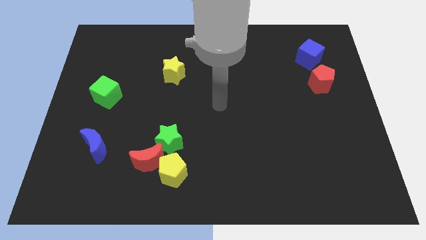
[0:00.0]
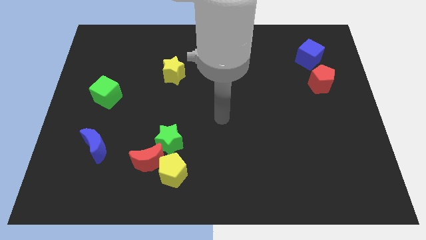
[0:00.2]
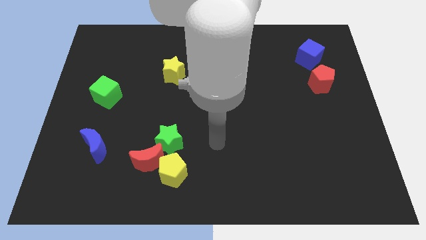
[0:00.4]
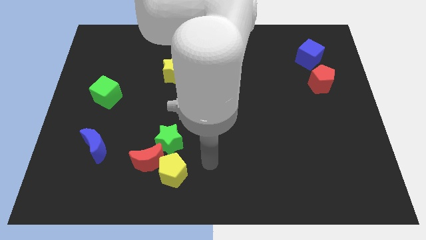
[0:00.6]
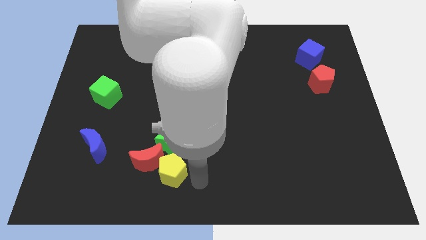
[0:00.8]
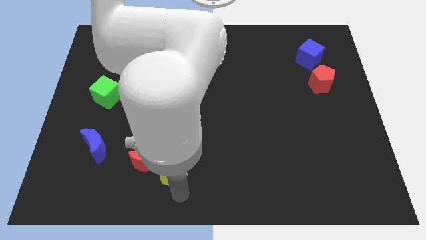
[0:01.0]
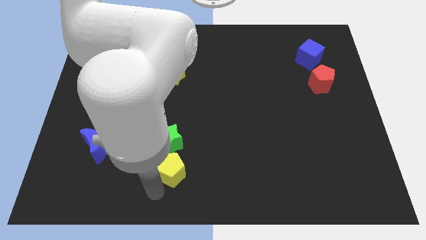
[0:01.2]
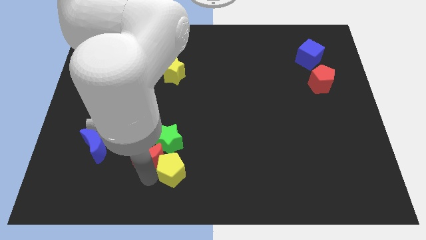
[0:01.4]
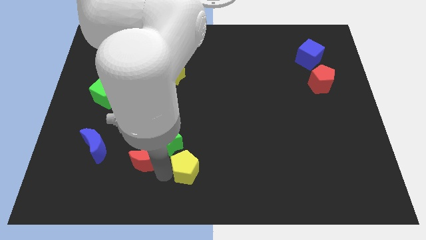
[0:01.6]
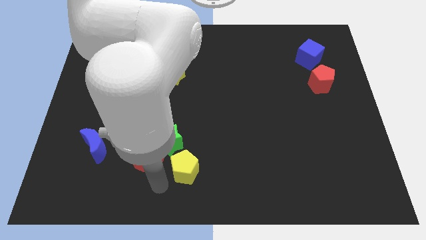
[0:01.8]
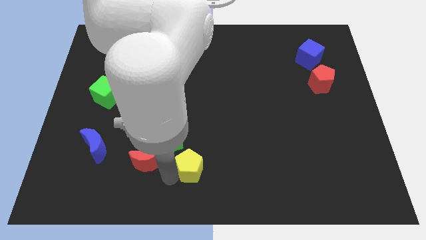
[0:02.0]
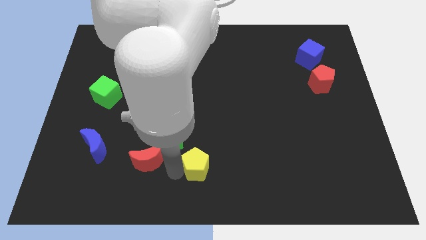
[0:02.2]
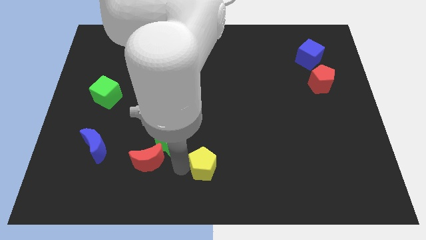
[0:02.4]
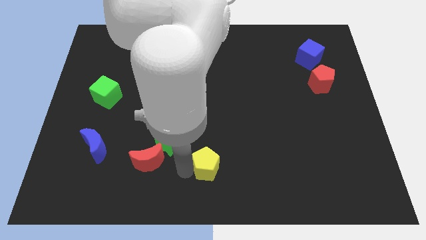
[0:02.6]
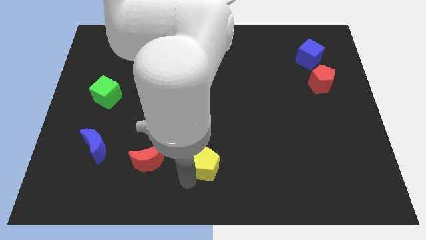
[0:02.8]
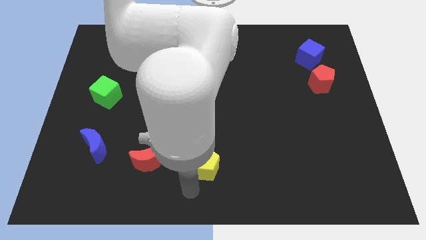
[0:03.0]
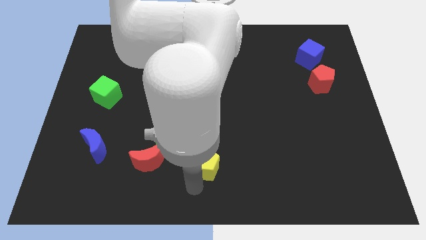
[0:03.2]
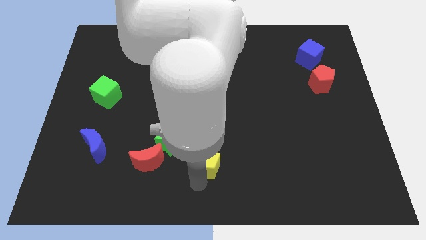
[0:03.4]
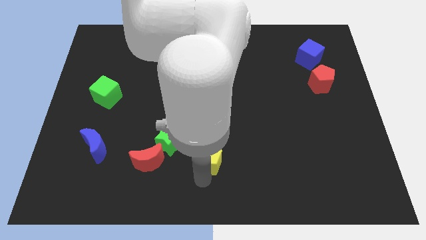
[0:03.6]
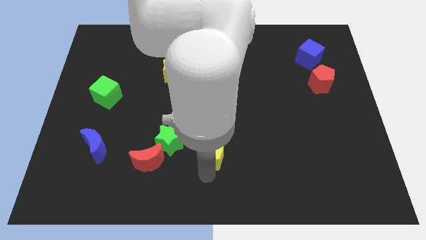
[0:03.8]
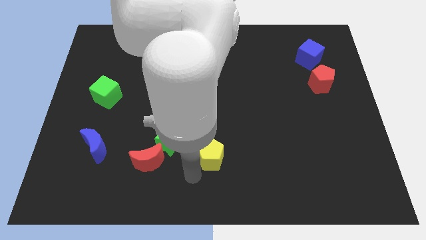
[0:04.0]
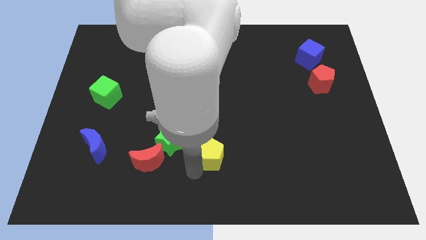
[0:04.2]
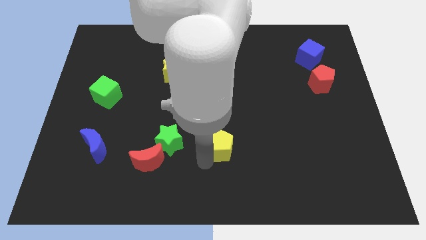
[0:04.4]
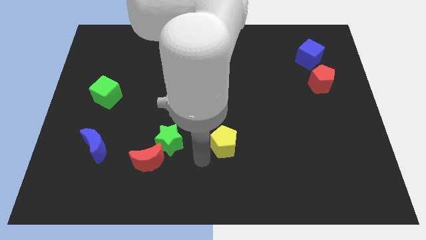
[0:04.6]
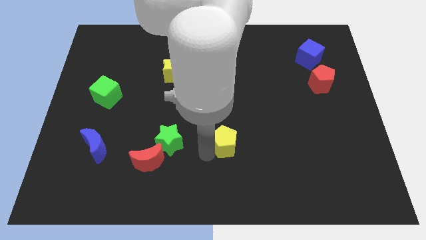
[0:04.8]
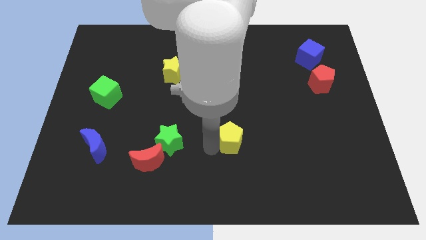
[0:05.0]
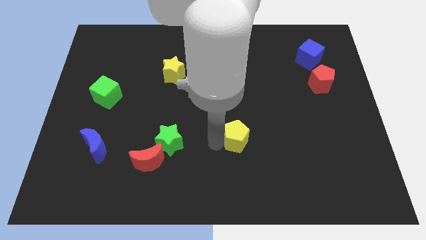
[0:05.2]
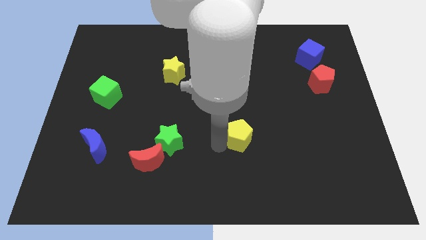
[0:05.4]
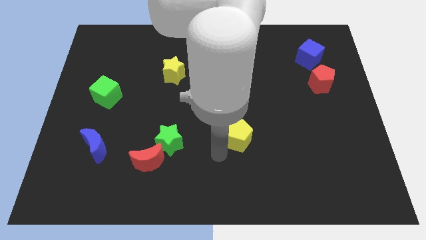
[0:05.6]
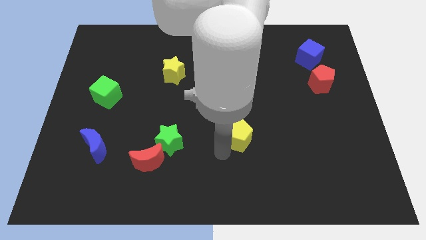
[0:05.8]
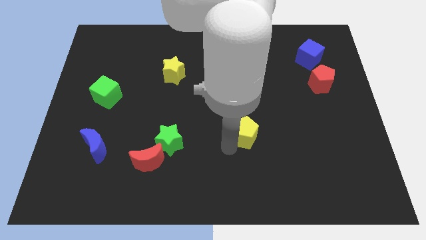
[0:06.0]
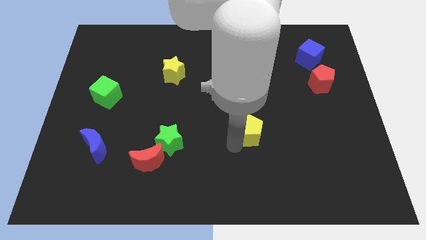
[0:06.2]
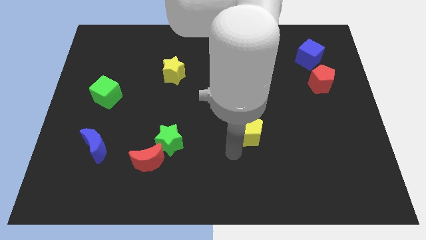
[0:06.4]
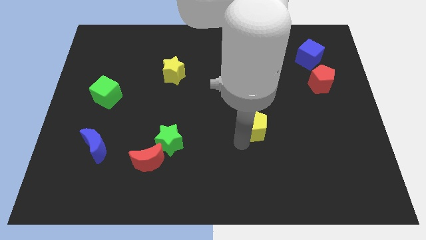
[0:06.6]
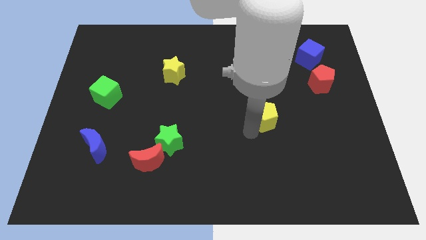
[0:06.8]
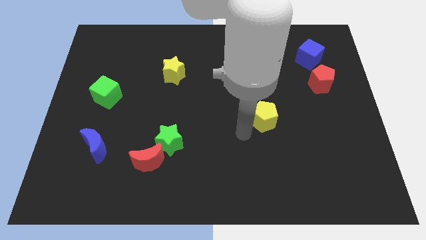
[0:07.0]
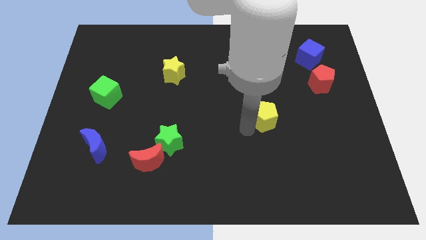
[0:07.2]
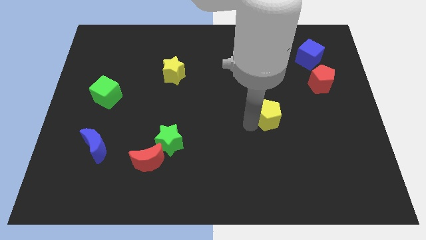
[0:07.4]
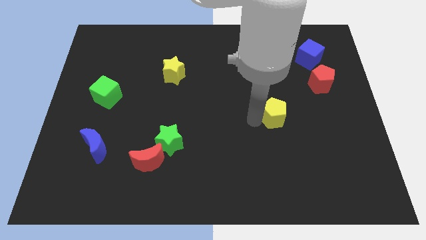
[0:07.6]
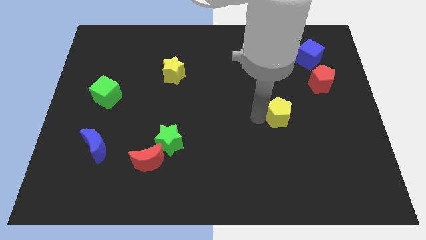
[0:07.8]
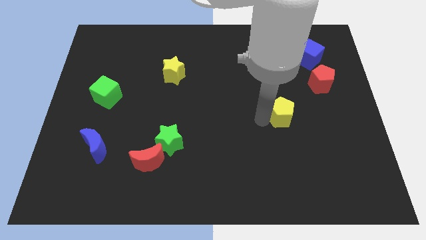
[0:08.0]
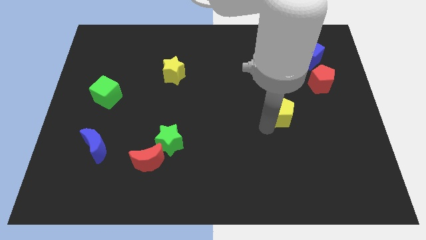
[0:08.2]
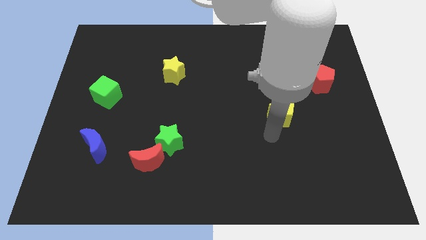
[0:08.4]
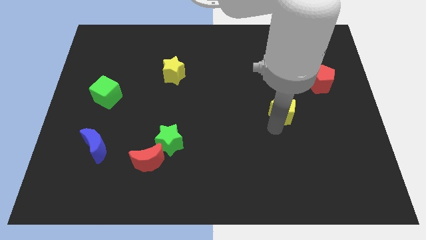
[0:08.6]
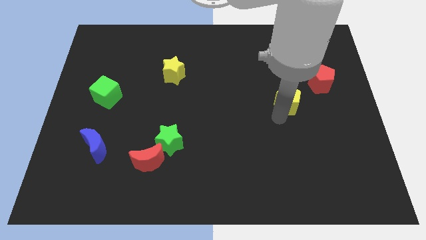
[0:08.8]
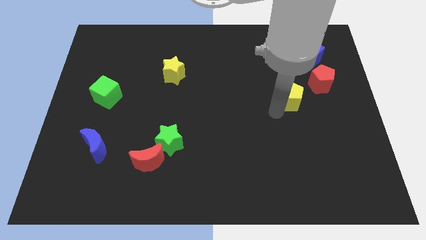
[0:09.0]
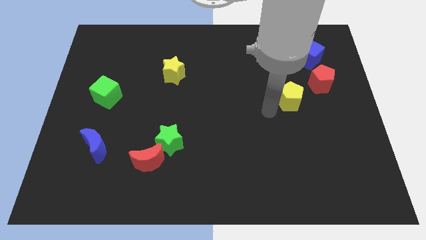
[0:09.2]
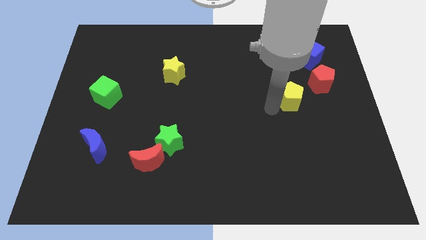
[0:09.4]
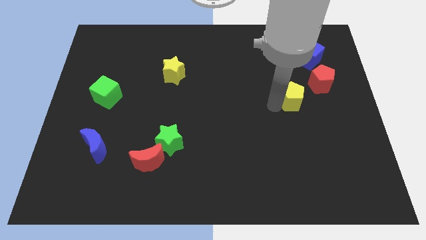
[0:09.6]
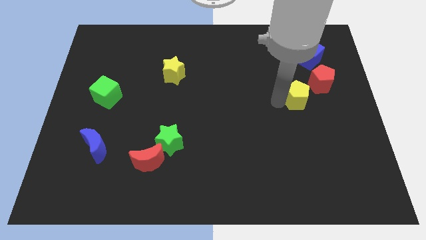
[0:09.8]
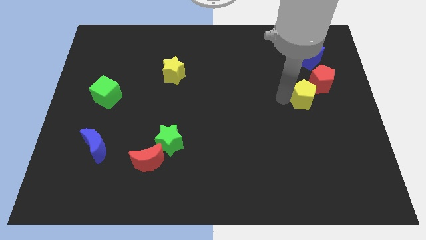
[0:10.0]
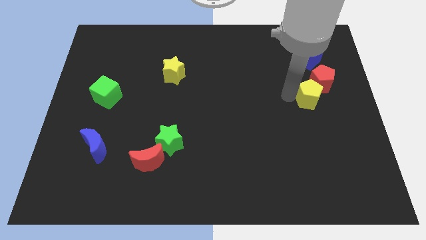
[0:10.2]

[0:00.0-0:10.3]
slide the yellow pentagon towards the red pentagon

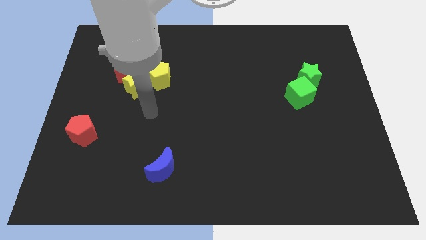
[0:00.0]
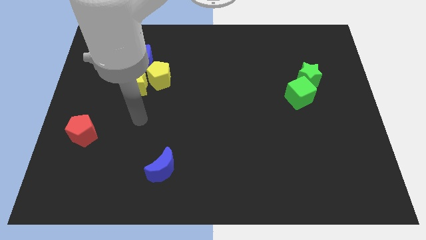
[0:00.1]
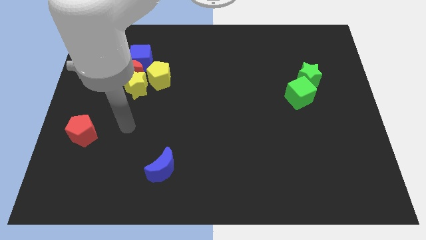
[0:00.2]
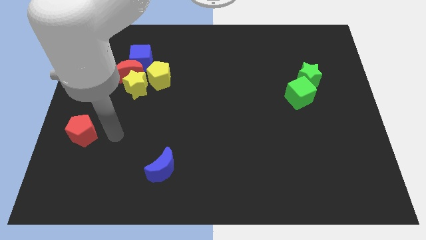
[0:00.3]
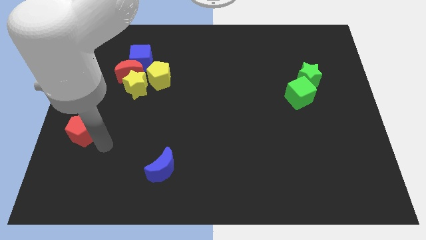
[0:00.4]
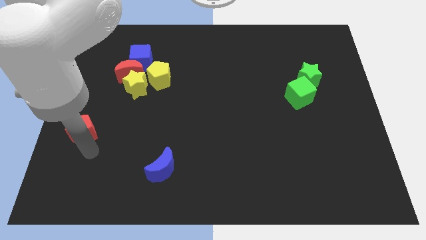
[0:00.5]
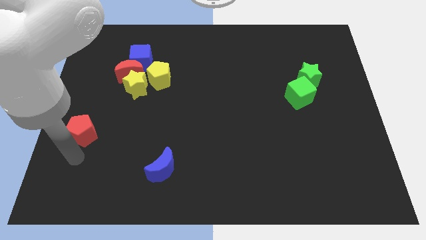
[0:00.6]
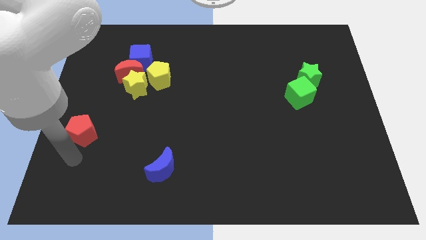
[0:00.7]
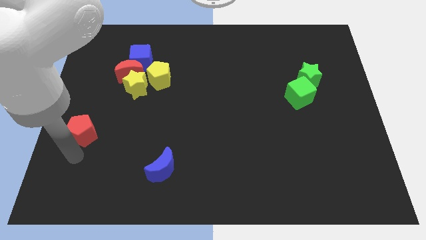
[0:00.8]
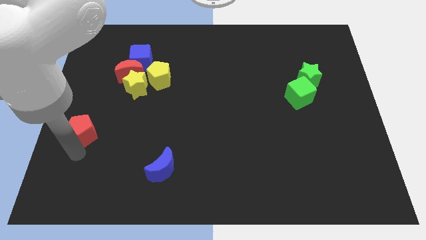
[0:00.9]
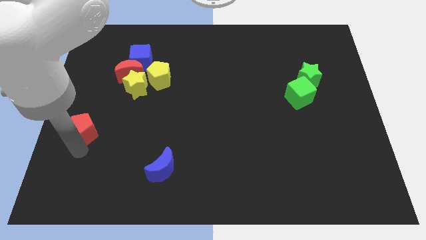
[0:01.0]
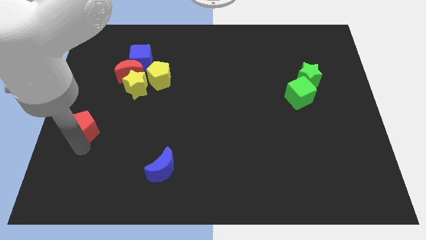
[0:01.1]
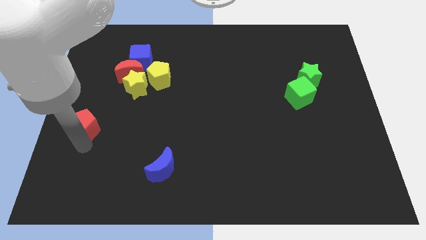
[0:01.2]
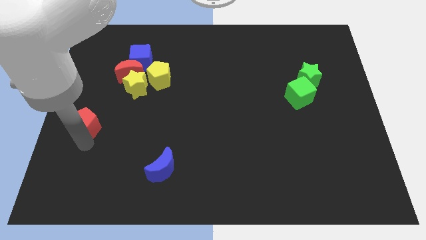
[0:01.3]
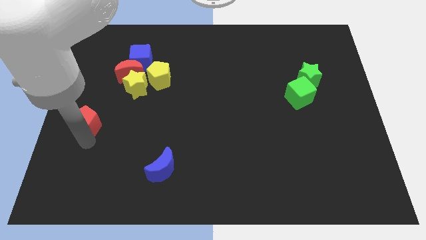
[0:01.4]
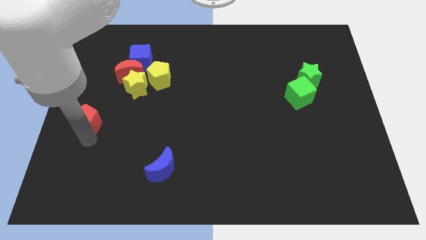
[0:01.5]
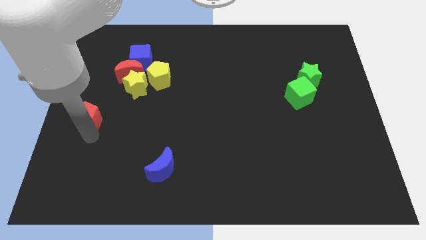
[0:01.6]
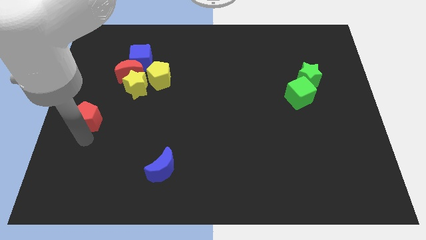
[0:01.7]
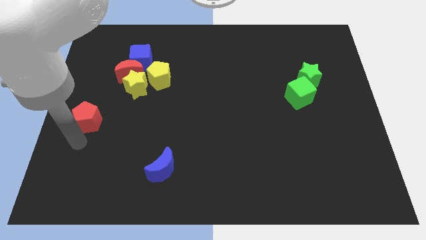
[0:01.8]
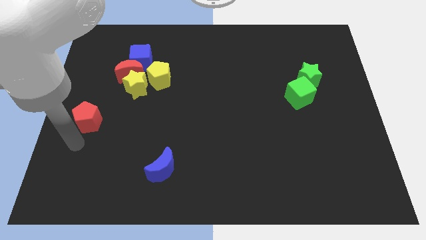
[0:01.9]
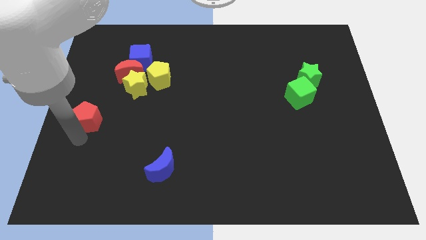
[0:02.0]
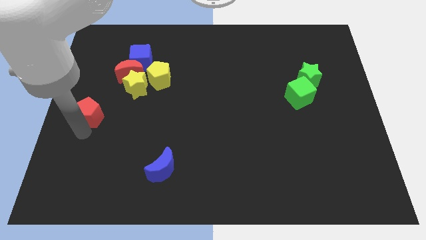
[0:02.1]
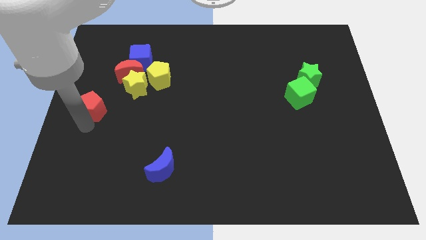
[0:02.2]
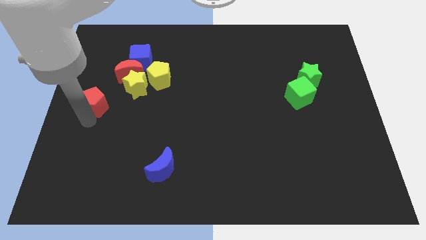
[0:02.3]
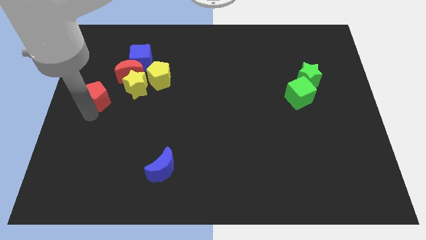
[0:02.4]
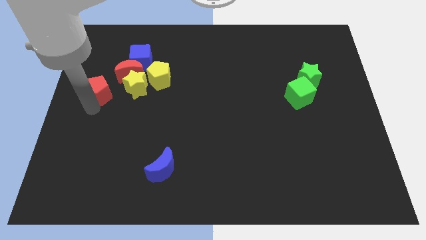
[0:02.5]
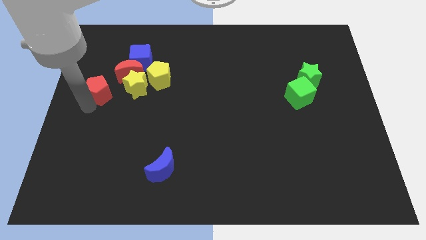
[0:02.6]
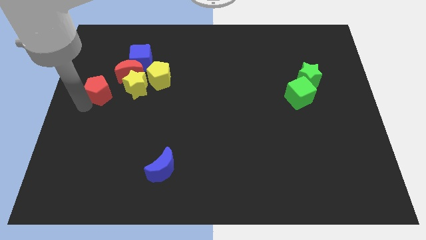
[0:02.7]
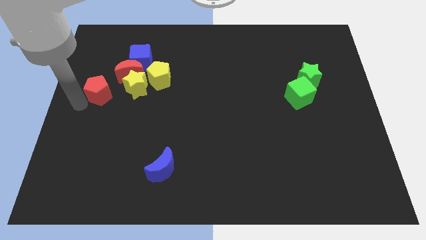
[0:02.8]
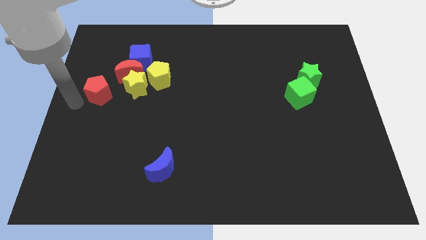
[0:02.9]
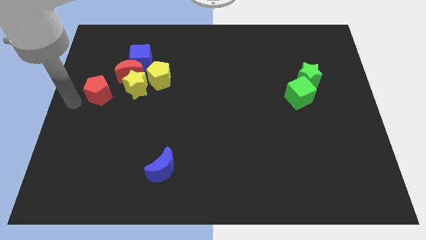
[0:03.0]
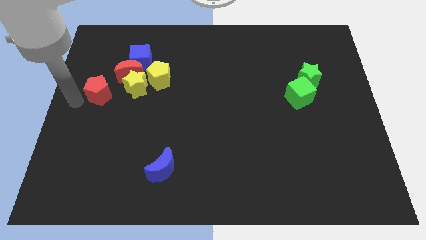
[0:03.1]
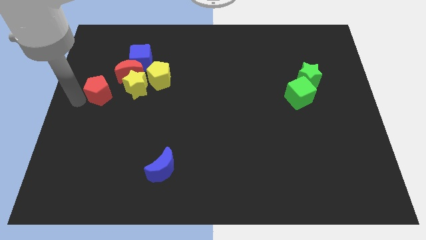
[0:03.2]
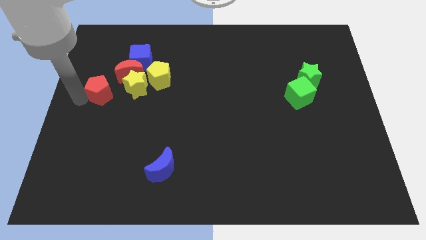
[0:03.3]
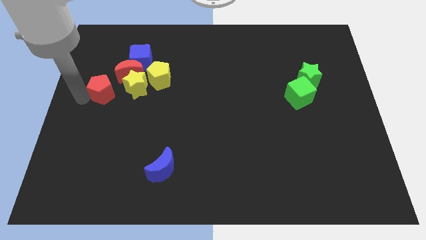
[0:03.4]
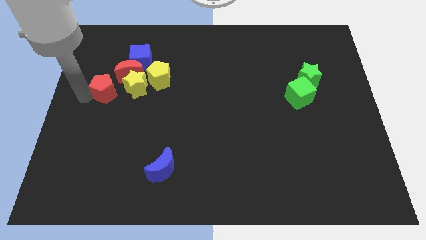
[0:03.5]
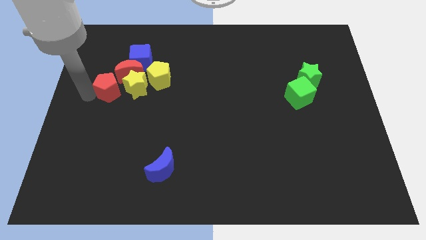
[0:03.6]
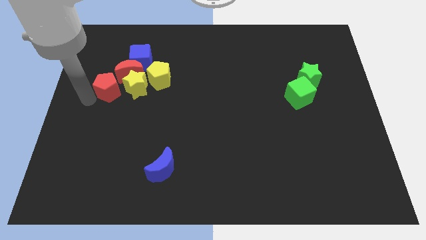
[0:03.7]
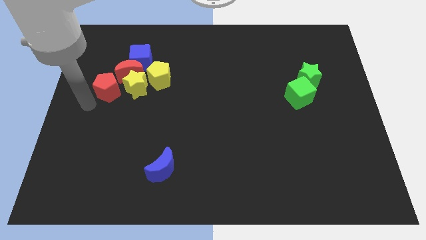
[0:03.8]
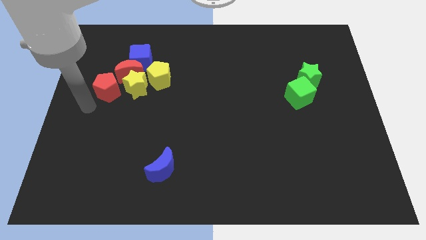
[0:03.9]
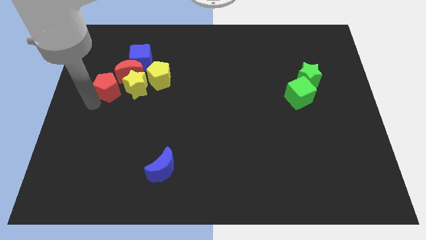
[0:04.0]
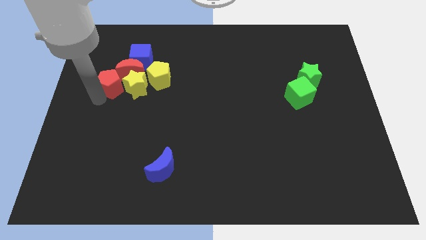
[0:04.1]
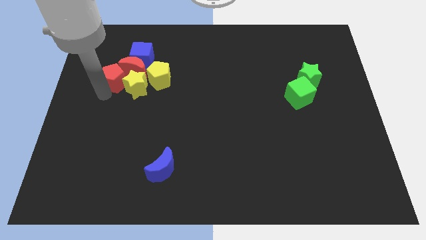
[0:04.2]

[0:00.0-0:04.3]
push the red pentagon next to the red moon
